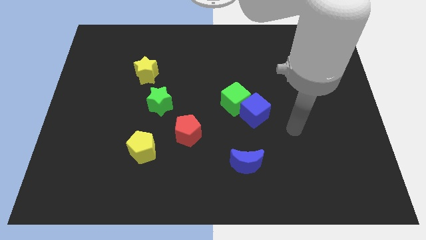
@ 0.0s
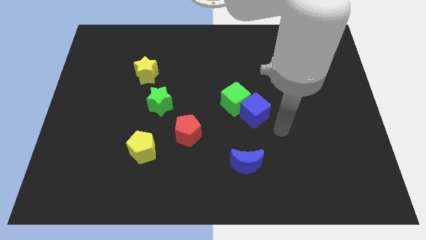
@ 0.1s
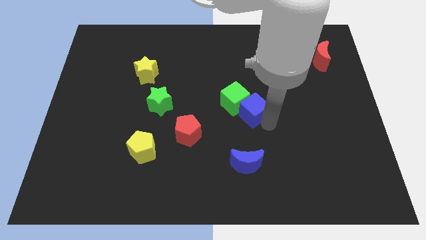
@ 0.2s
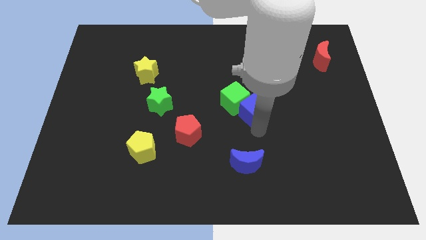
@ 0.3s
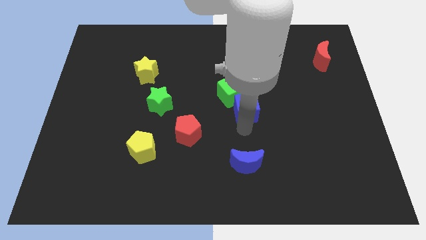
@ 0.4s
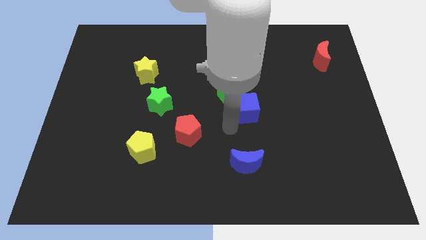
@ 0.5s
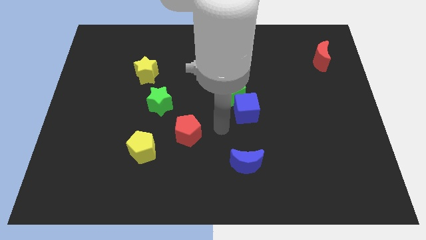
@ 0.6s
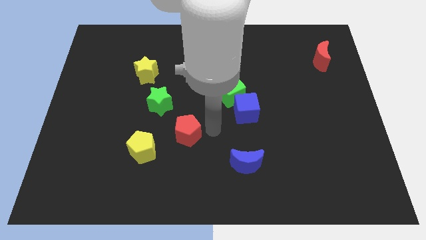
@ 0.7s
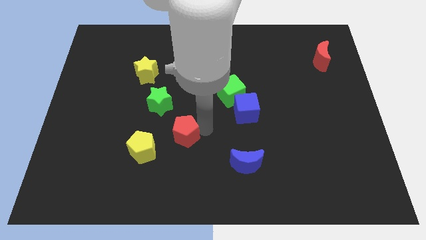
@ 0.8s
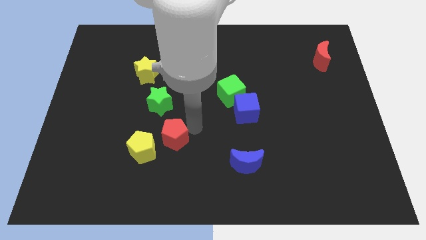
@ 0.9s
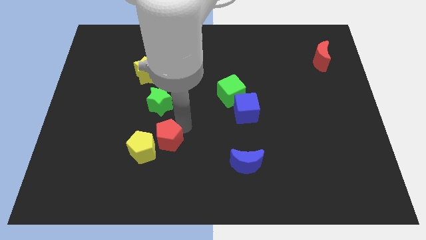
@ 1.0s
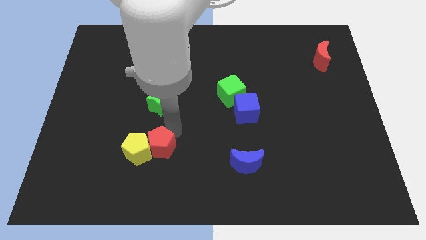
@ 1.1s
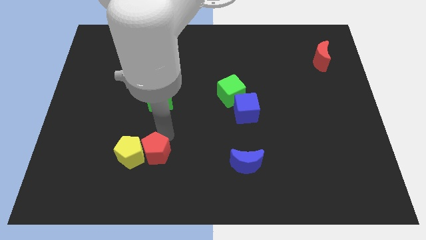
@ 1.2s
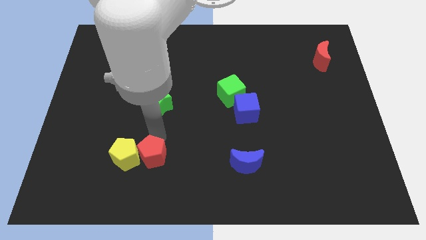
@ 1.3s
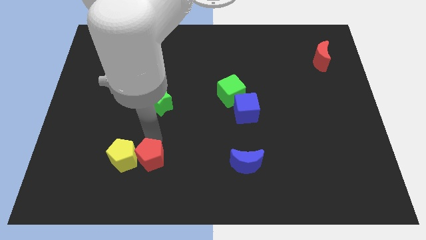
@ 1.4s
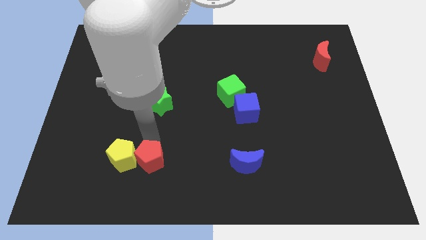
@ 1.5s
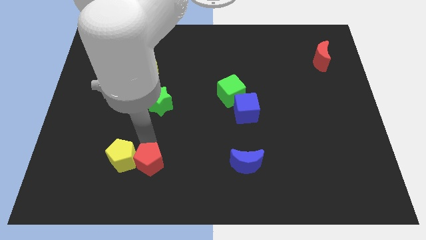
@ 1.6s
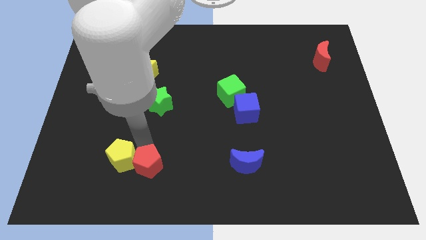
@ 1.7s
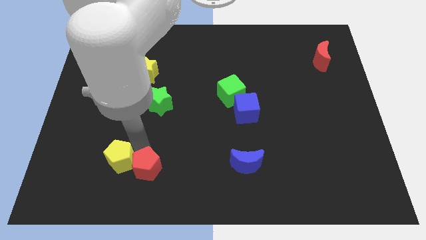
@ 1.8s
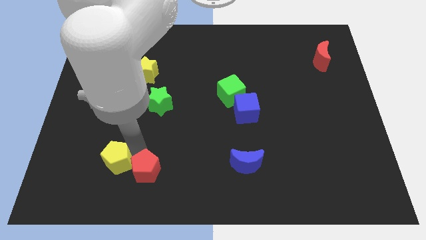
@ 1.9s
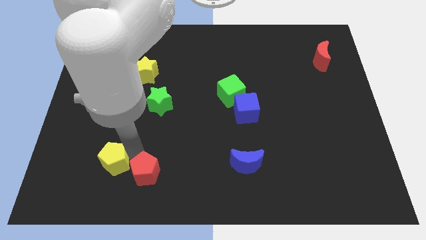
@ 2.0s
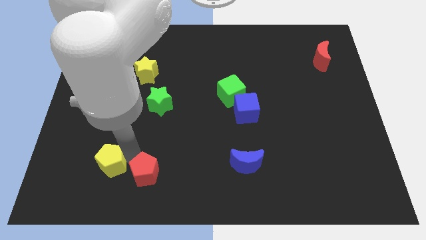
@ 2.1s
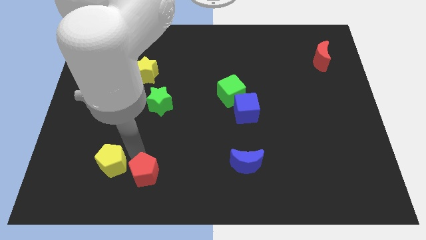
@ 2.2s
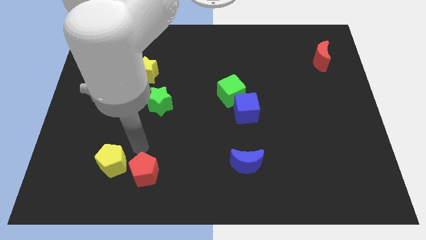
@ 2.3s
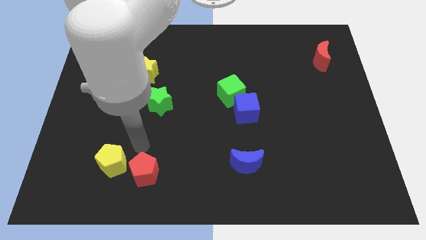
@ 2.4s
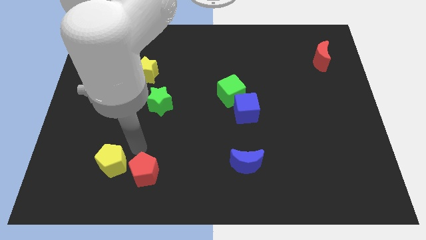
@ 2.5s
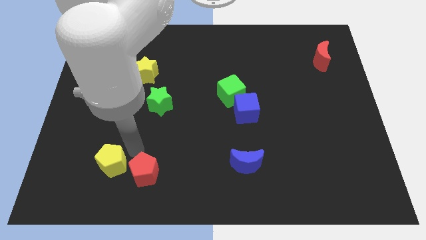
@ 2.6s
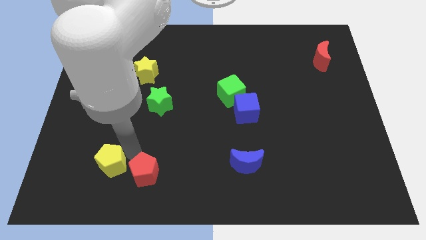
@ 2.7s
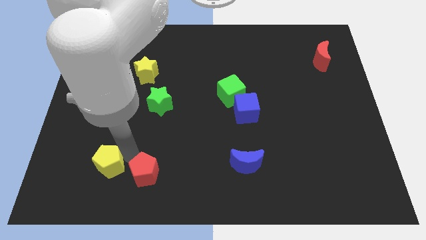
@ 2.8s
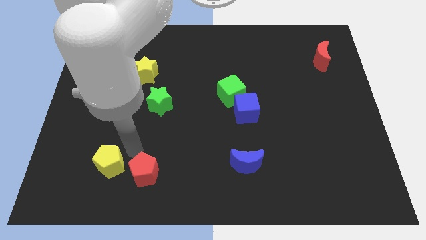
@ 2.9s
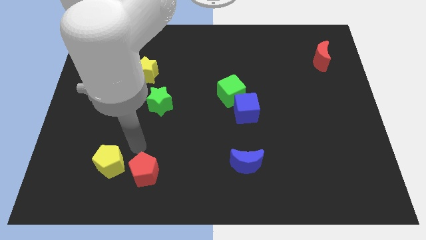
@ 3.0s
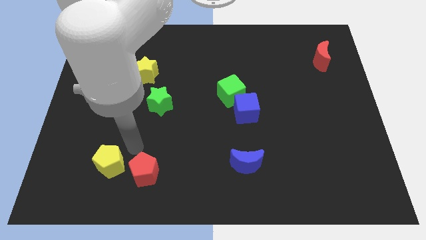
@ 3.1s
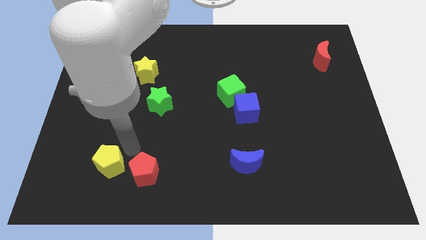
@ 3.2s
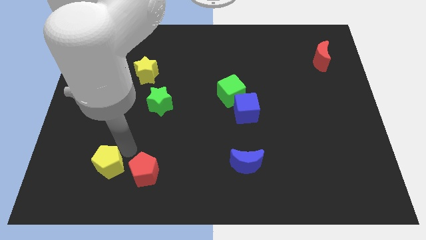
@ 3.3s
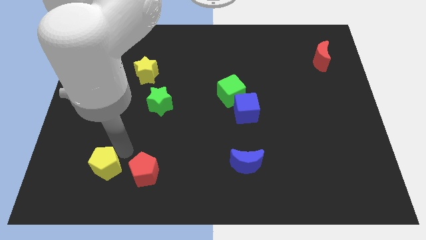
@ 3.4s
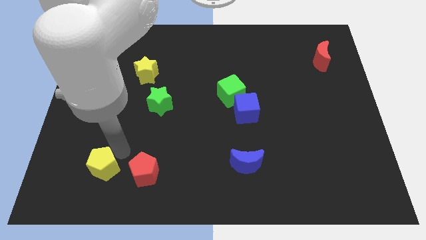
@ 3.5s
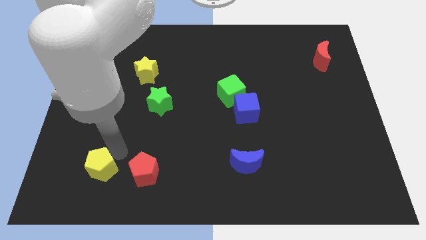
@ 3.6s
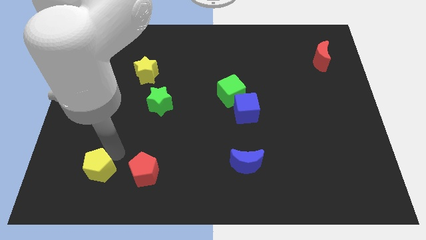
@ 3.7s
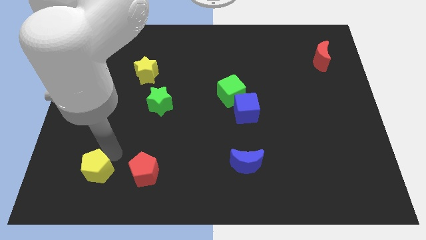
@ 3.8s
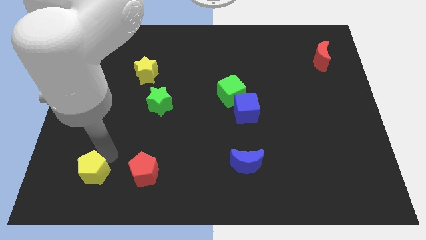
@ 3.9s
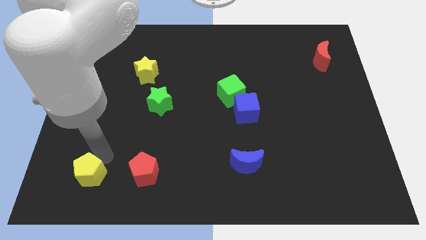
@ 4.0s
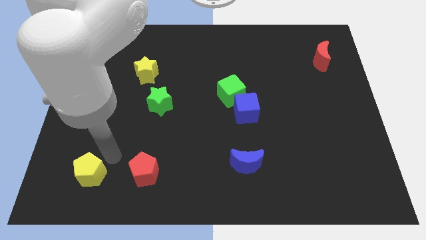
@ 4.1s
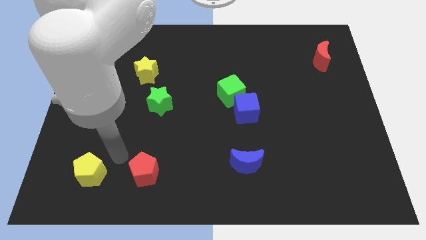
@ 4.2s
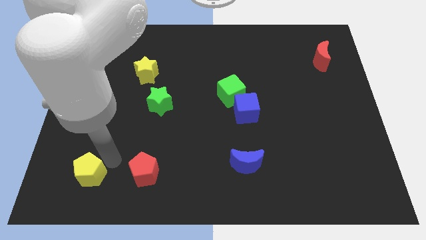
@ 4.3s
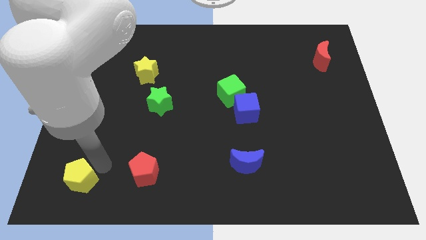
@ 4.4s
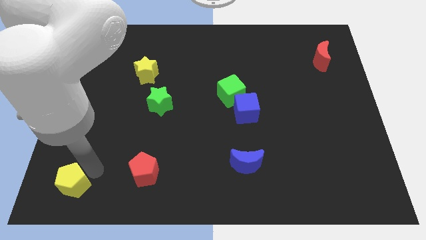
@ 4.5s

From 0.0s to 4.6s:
put the yellow pentagon to the bottom left corner

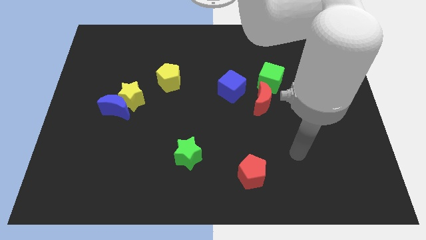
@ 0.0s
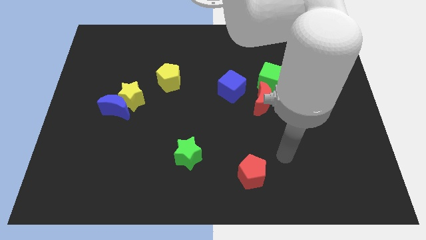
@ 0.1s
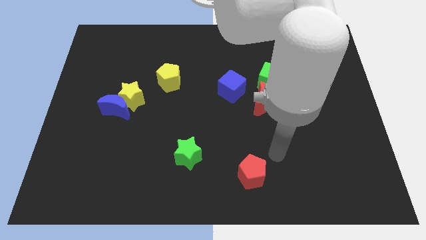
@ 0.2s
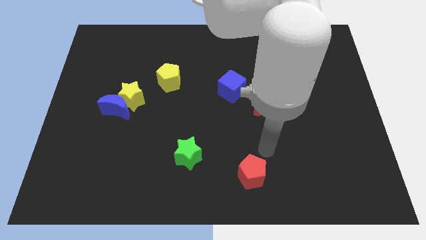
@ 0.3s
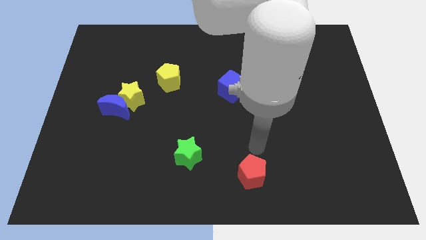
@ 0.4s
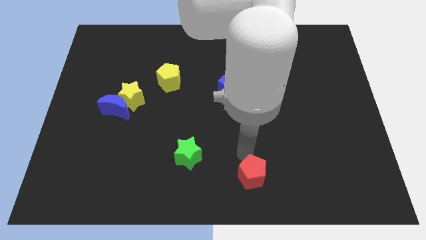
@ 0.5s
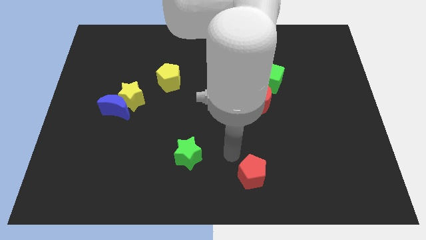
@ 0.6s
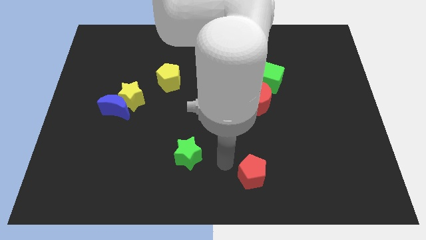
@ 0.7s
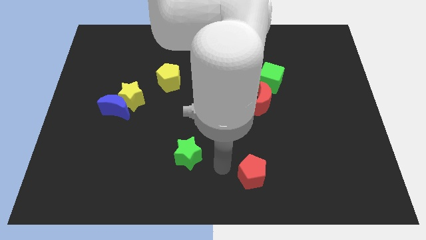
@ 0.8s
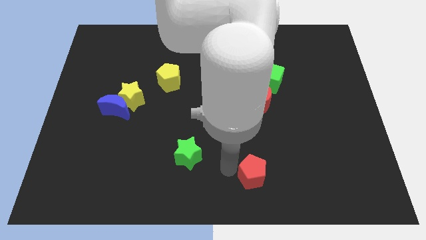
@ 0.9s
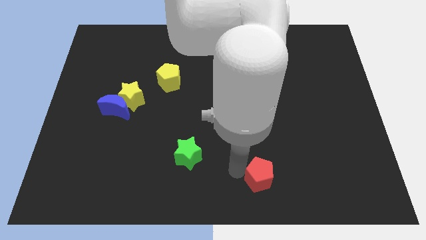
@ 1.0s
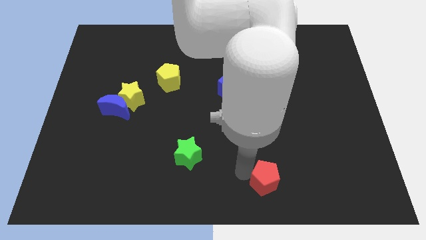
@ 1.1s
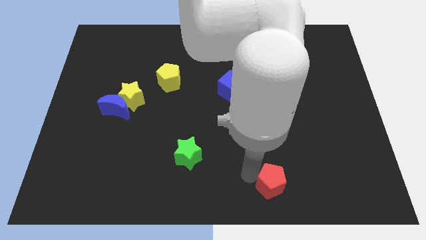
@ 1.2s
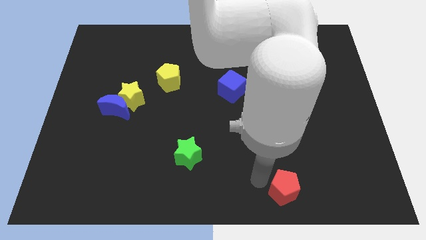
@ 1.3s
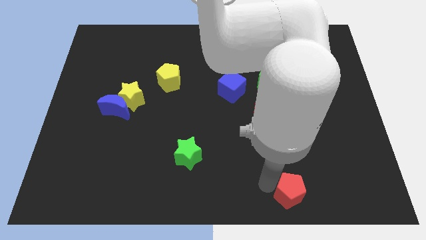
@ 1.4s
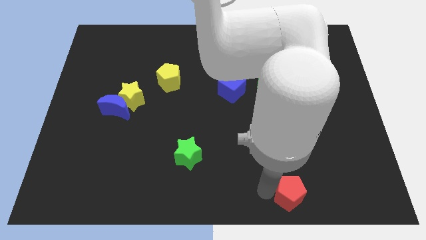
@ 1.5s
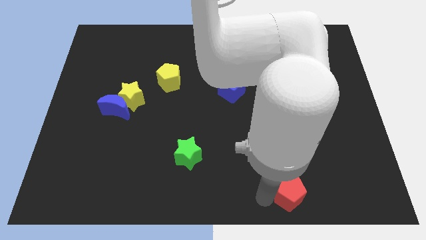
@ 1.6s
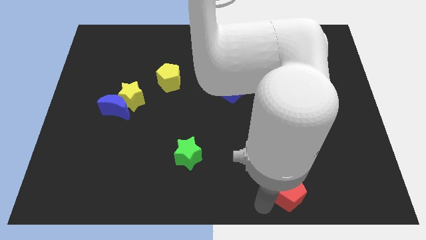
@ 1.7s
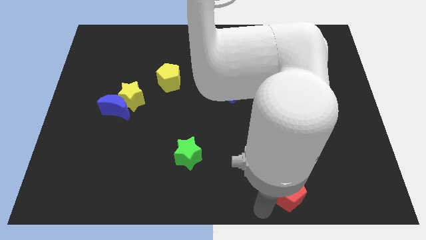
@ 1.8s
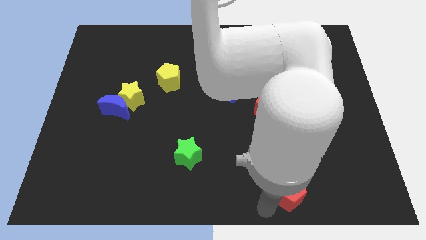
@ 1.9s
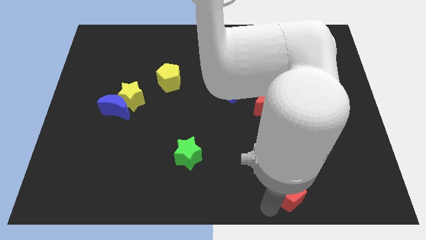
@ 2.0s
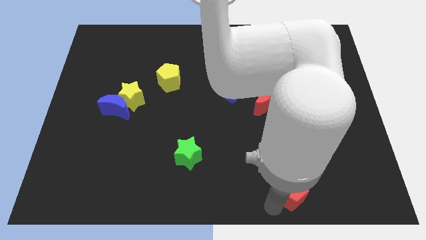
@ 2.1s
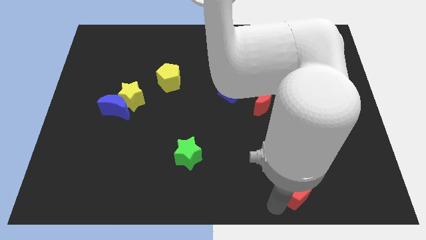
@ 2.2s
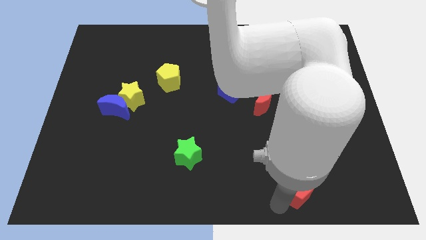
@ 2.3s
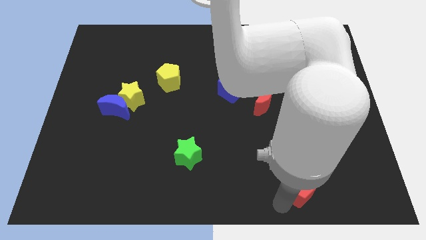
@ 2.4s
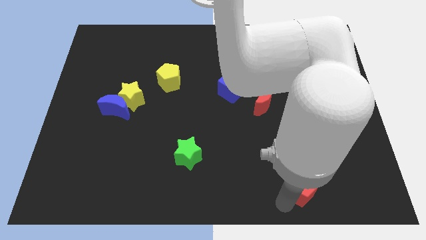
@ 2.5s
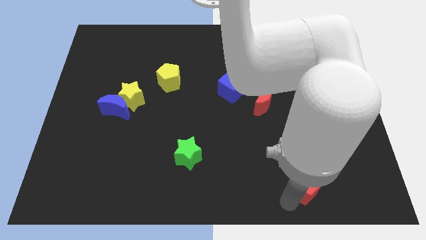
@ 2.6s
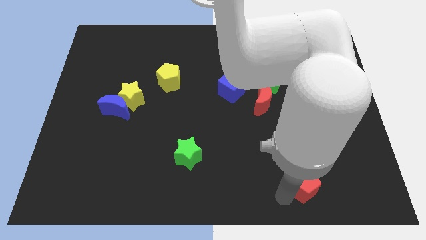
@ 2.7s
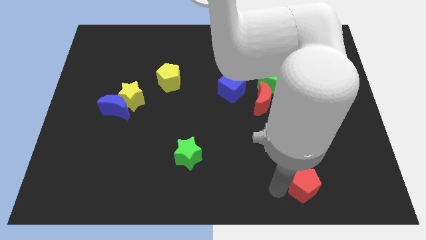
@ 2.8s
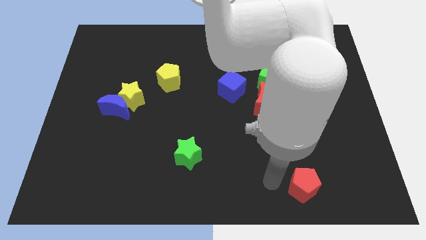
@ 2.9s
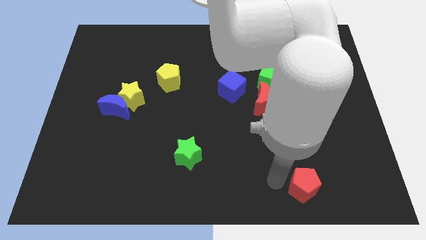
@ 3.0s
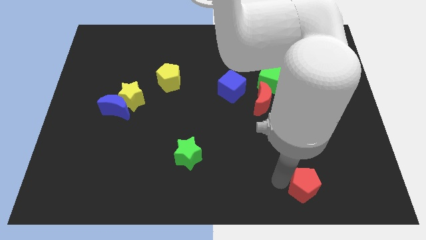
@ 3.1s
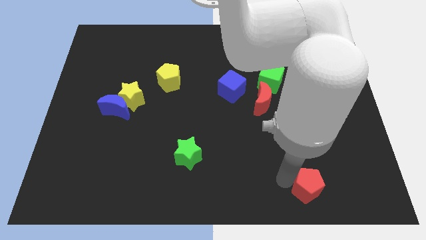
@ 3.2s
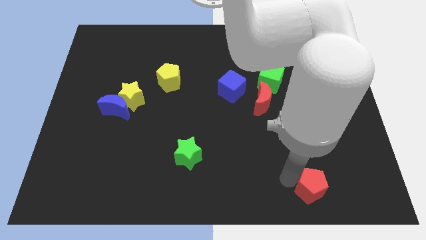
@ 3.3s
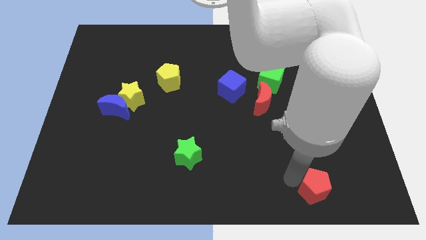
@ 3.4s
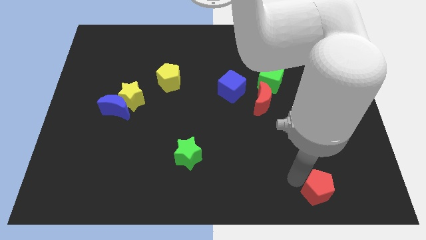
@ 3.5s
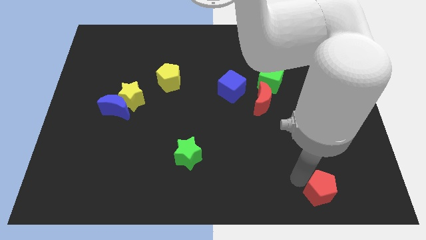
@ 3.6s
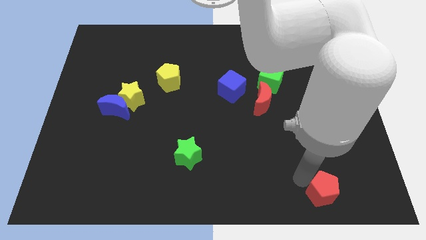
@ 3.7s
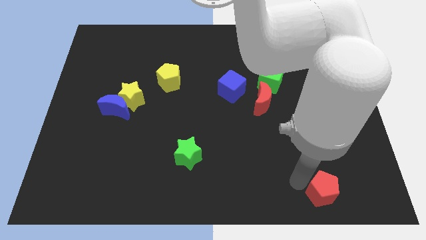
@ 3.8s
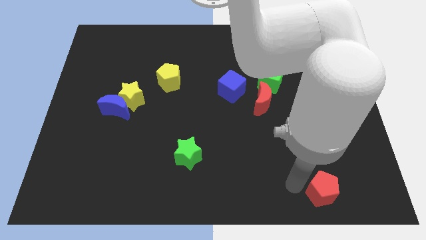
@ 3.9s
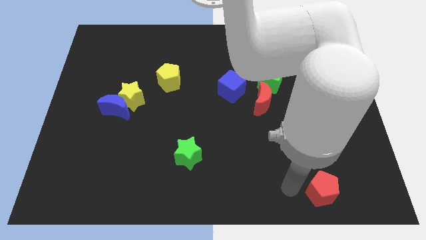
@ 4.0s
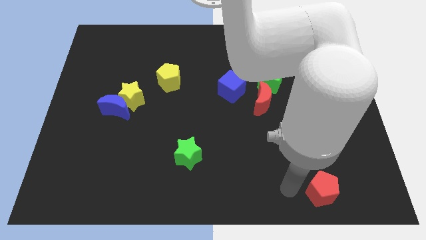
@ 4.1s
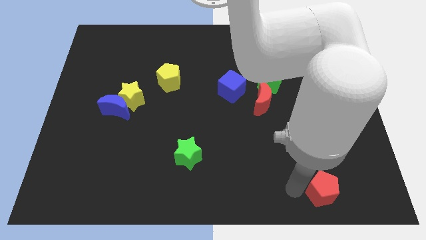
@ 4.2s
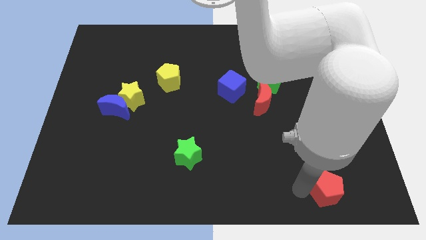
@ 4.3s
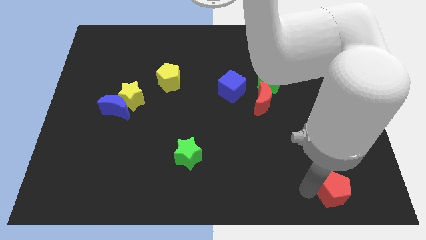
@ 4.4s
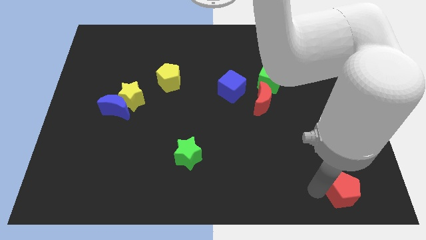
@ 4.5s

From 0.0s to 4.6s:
put the red pentagon to the bottom right corner
